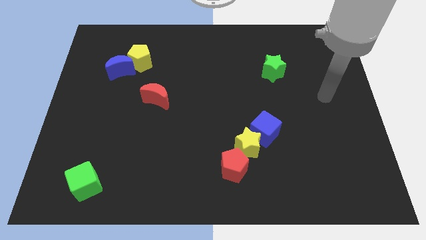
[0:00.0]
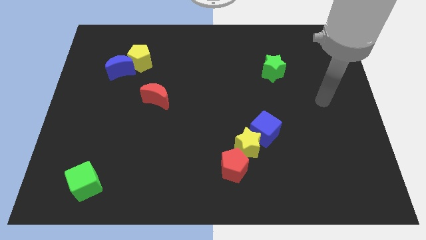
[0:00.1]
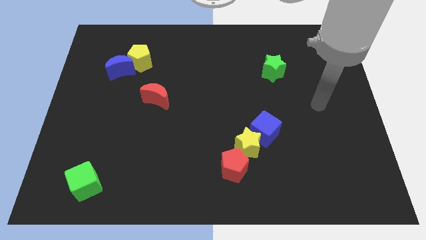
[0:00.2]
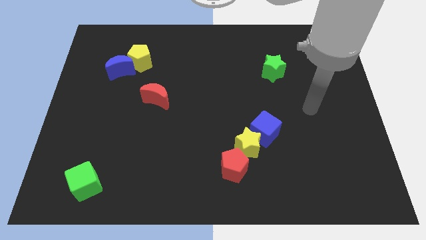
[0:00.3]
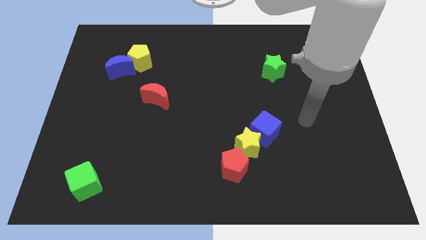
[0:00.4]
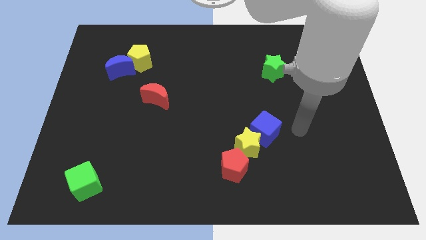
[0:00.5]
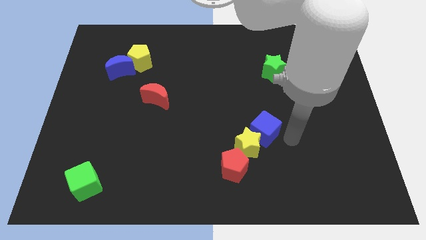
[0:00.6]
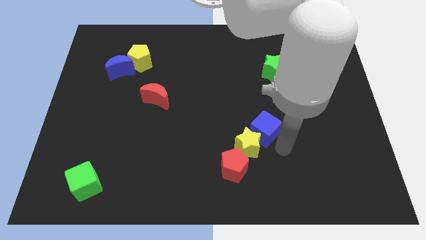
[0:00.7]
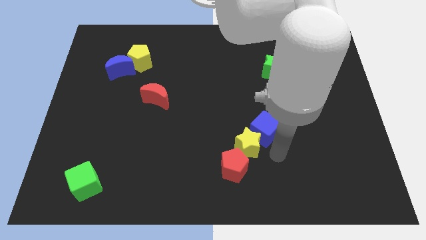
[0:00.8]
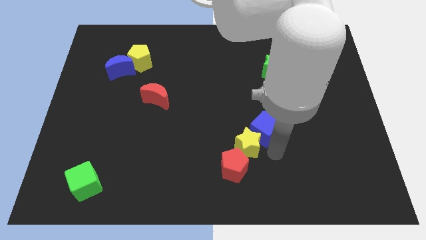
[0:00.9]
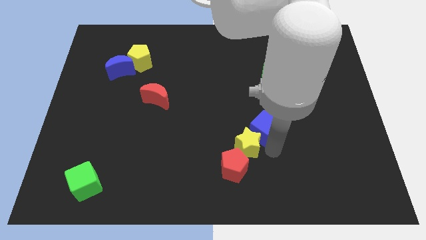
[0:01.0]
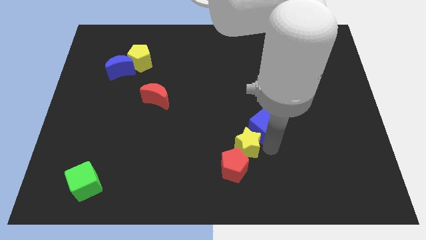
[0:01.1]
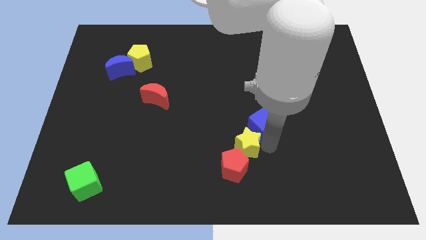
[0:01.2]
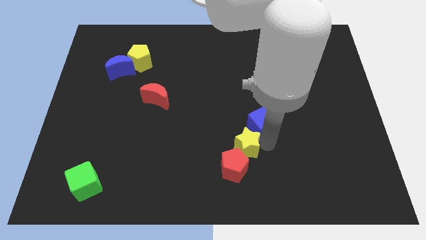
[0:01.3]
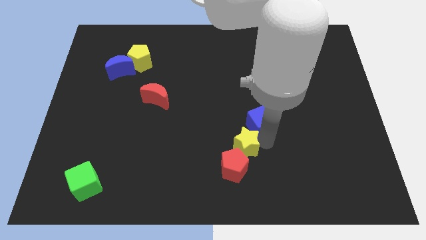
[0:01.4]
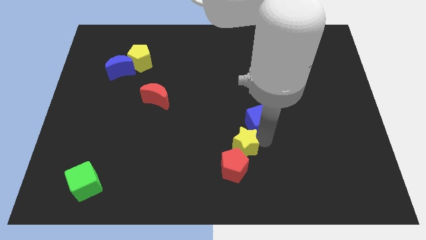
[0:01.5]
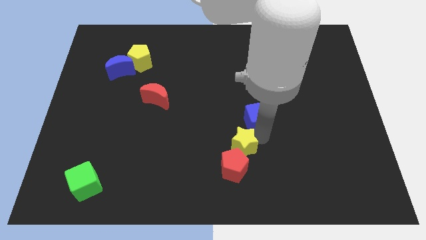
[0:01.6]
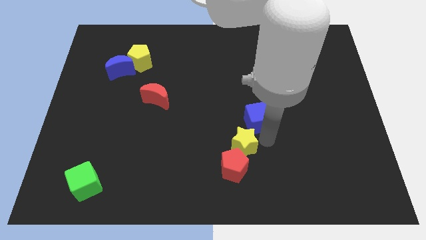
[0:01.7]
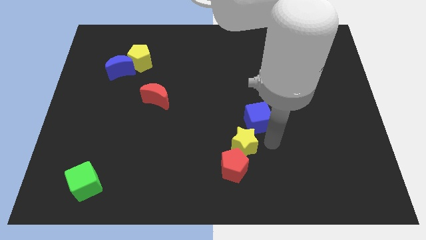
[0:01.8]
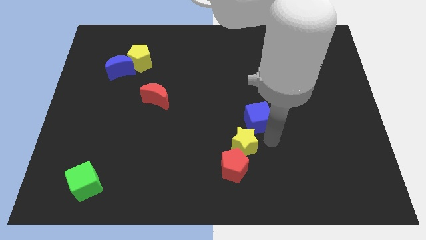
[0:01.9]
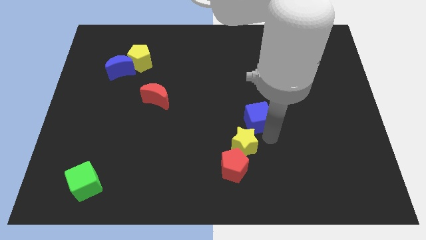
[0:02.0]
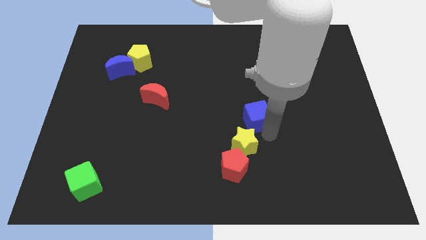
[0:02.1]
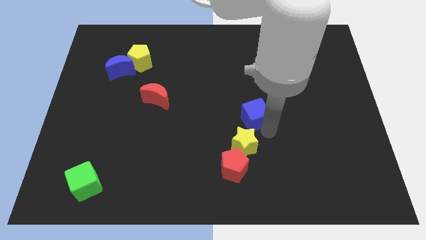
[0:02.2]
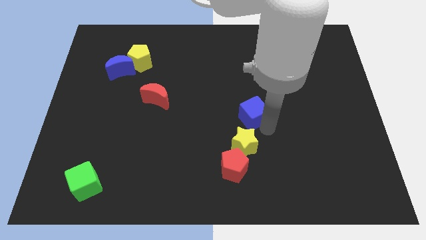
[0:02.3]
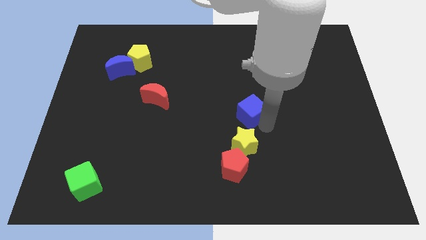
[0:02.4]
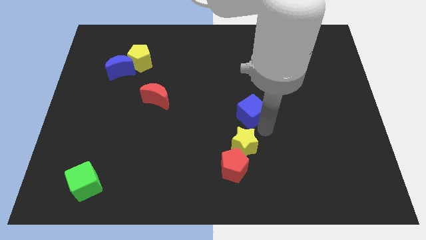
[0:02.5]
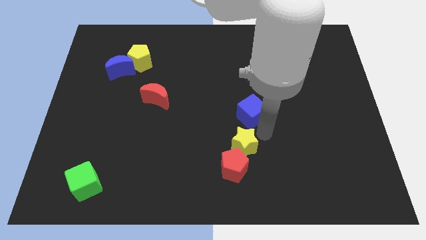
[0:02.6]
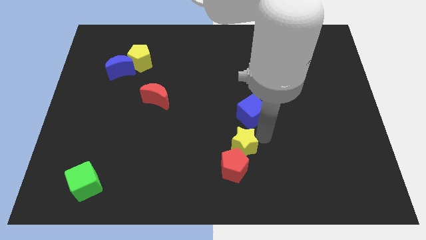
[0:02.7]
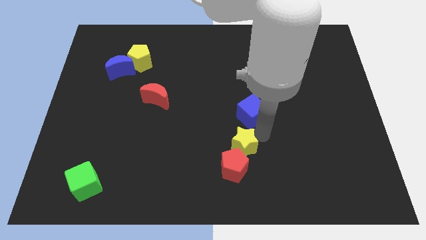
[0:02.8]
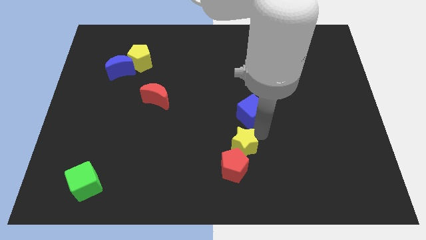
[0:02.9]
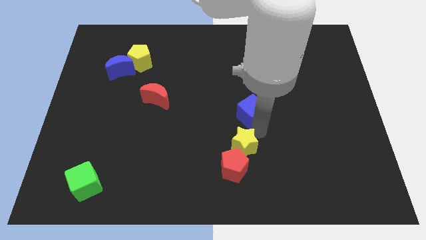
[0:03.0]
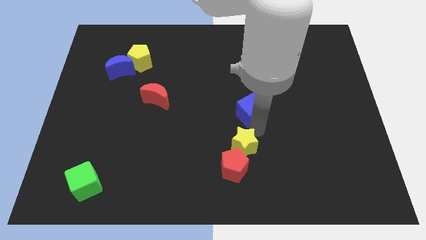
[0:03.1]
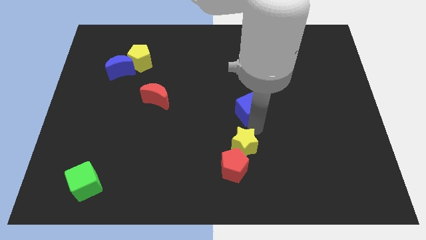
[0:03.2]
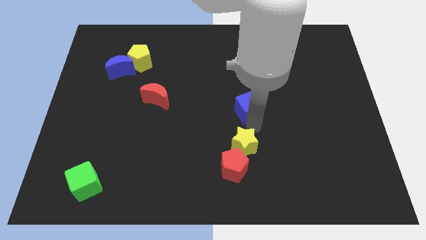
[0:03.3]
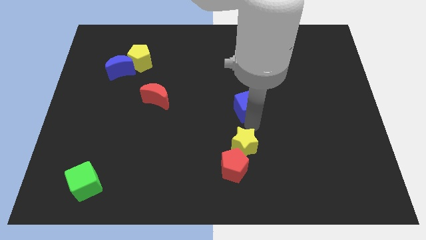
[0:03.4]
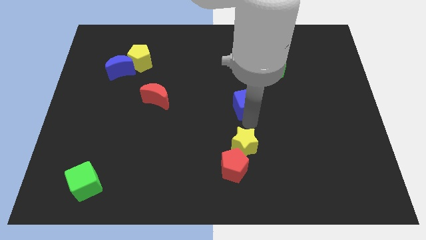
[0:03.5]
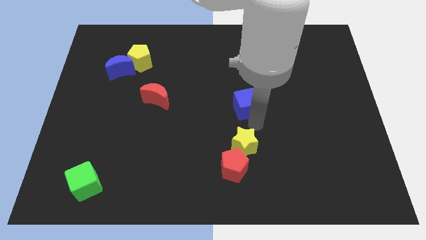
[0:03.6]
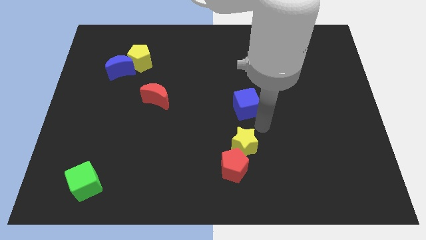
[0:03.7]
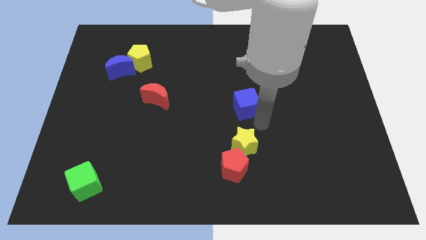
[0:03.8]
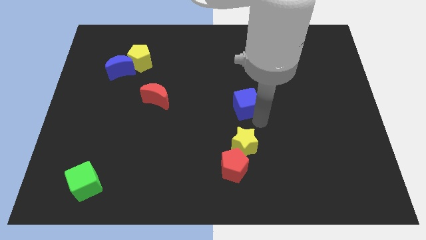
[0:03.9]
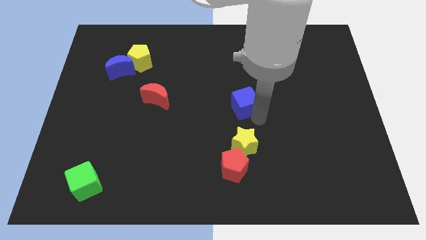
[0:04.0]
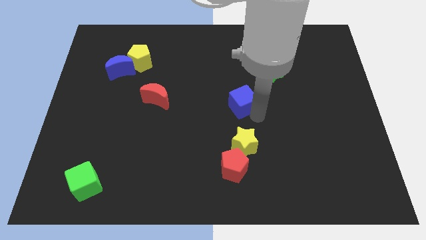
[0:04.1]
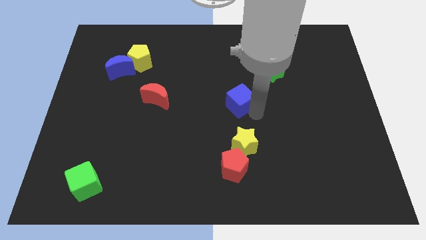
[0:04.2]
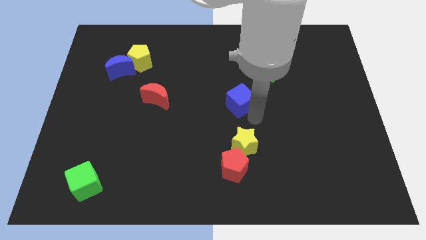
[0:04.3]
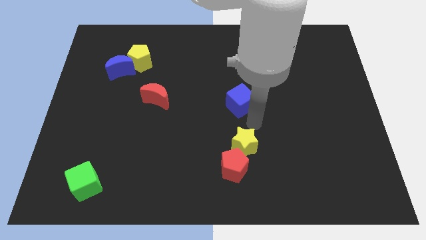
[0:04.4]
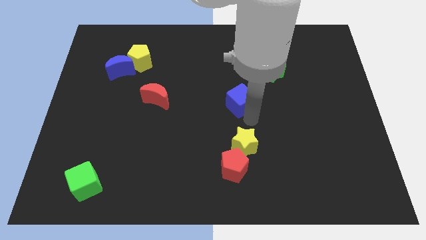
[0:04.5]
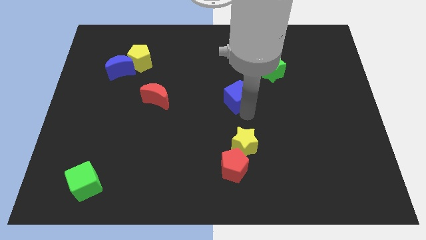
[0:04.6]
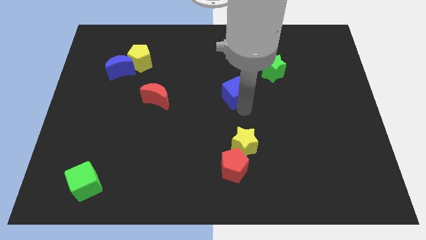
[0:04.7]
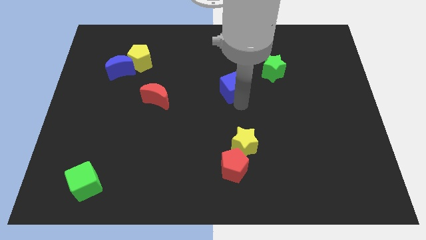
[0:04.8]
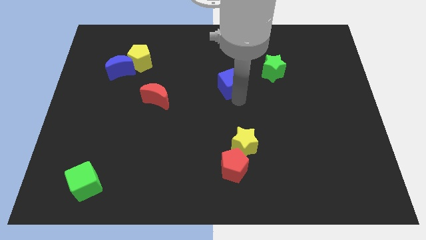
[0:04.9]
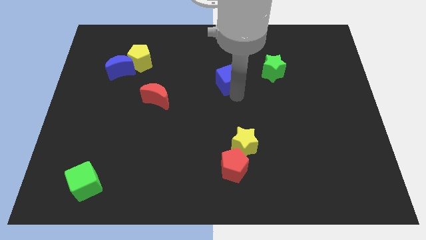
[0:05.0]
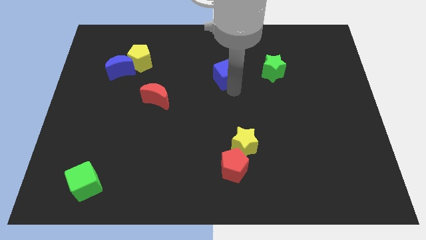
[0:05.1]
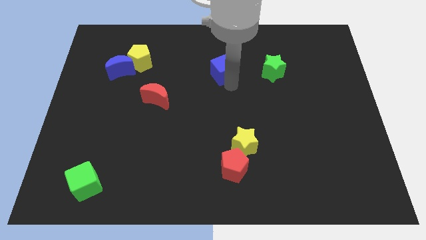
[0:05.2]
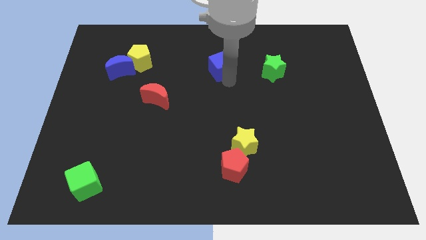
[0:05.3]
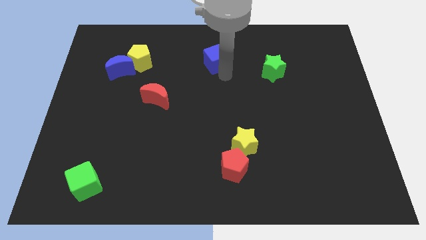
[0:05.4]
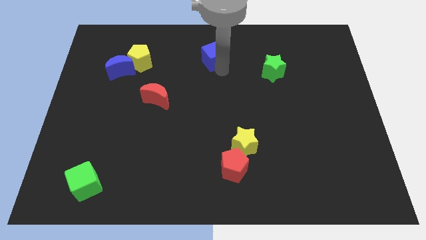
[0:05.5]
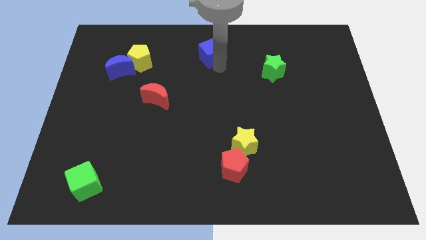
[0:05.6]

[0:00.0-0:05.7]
push the blue cube to the top side

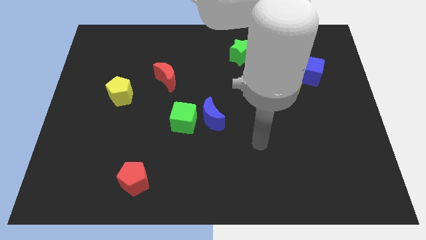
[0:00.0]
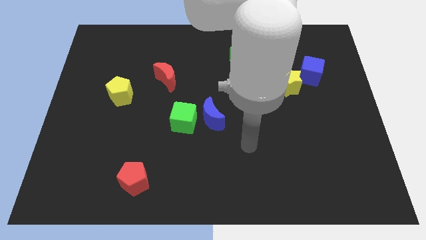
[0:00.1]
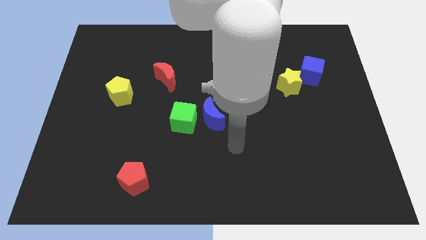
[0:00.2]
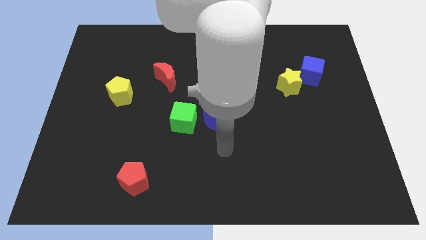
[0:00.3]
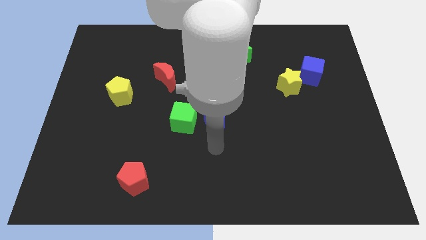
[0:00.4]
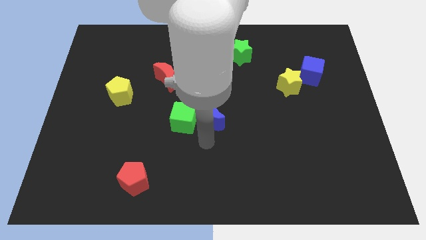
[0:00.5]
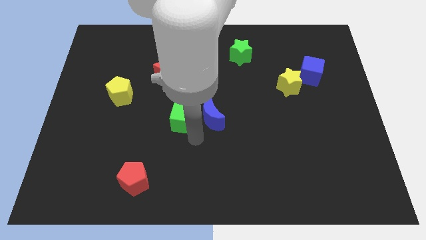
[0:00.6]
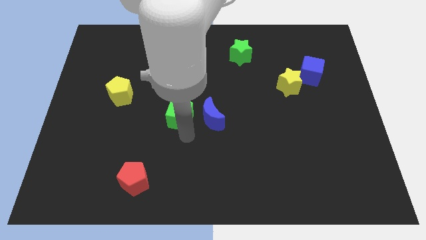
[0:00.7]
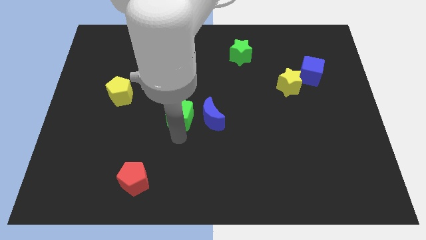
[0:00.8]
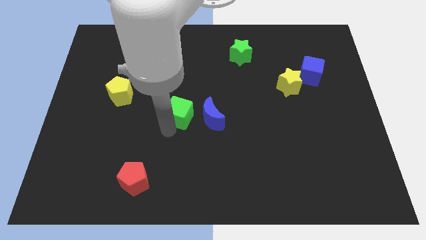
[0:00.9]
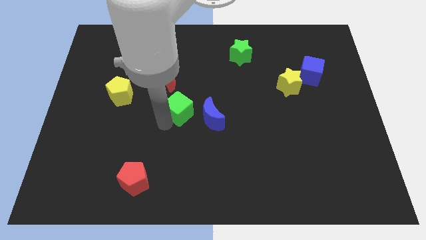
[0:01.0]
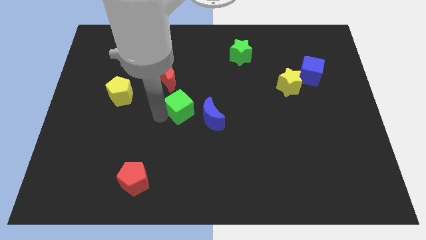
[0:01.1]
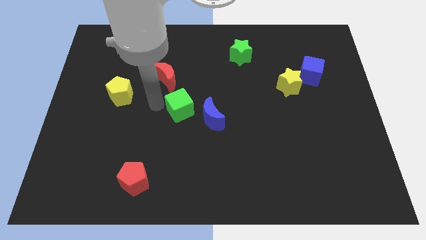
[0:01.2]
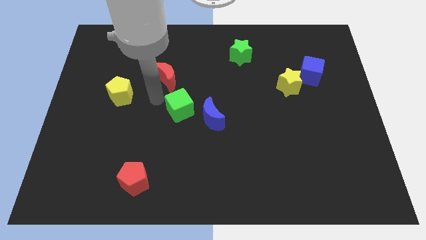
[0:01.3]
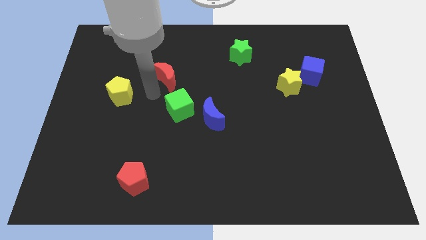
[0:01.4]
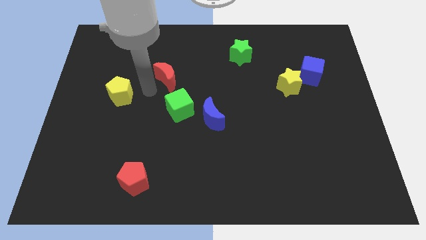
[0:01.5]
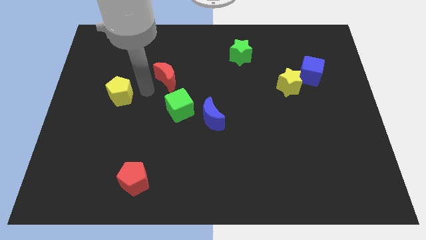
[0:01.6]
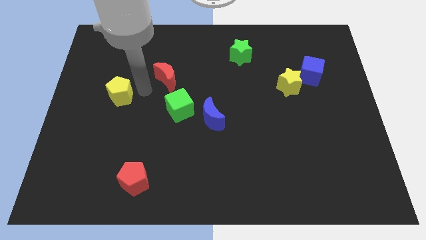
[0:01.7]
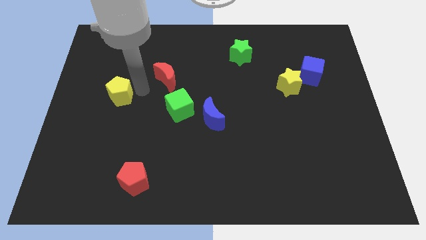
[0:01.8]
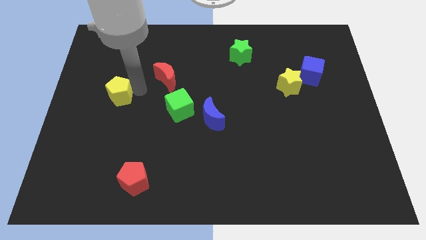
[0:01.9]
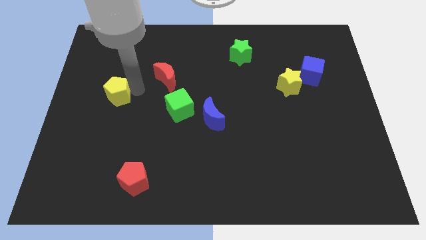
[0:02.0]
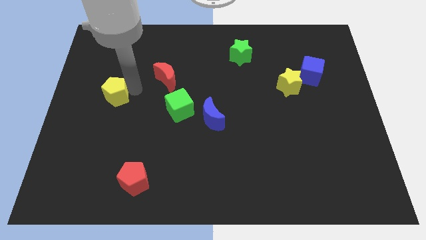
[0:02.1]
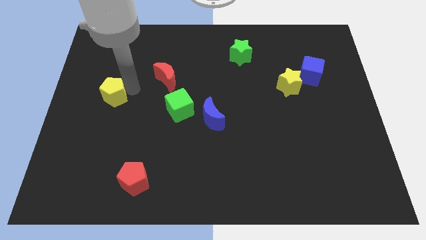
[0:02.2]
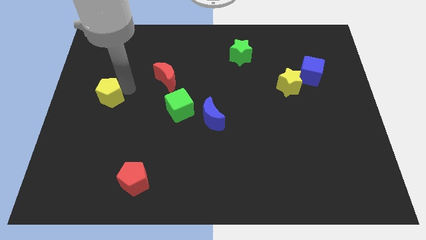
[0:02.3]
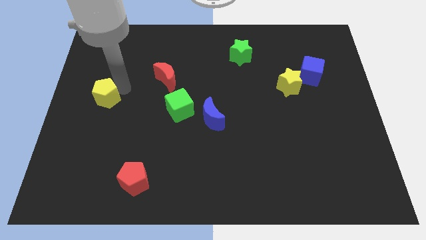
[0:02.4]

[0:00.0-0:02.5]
push the yellow pentagon to the center left
